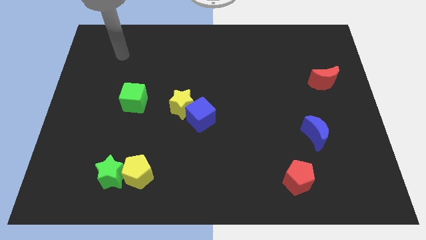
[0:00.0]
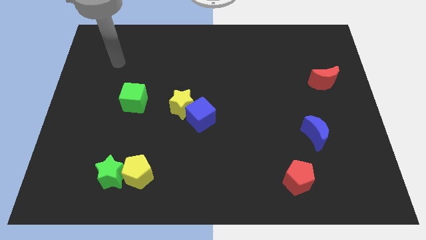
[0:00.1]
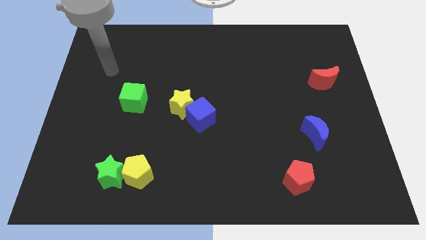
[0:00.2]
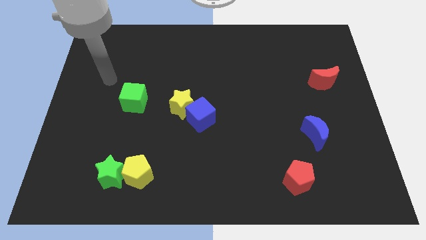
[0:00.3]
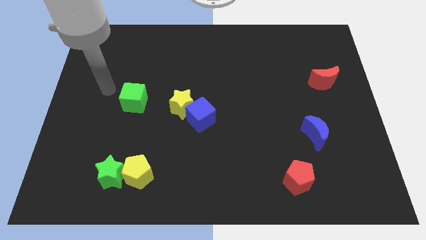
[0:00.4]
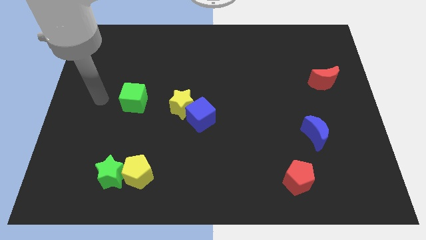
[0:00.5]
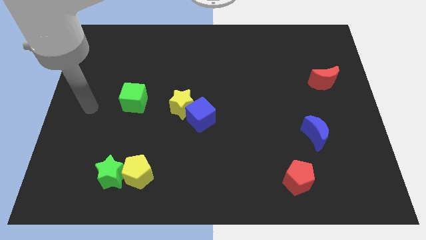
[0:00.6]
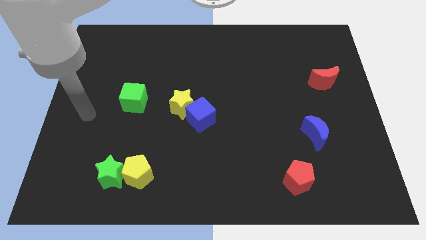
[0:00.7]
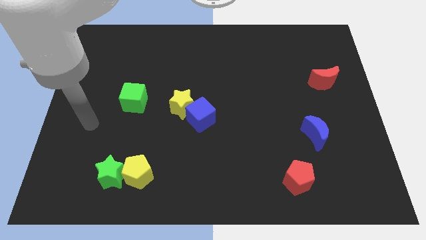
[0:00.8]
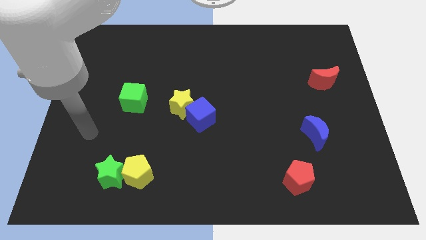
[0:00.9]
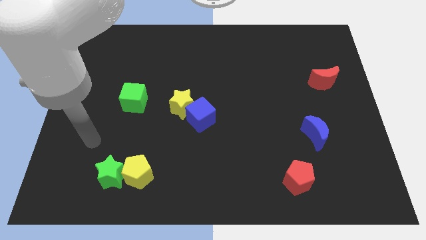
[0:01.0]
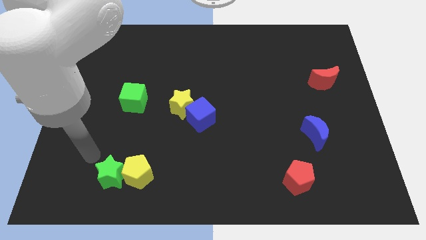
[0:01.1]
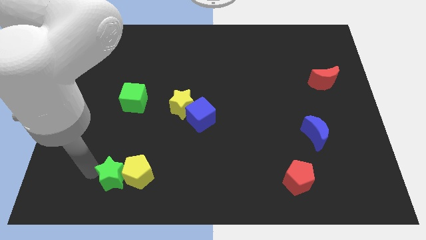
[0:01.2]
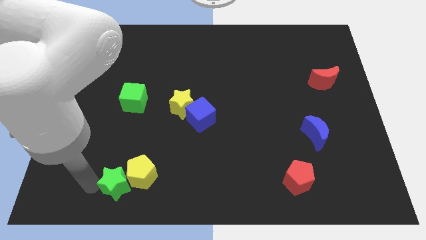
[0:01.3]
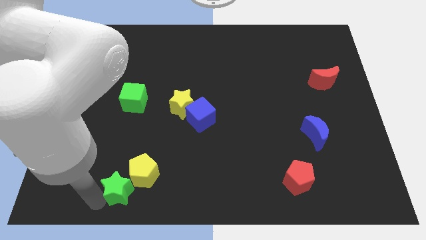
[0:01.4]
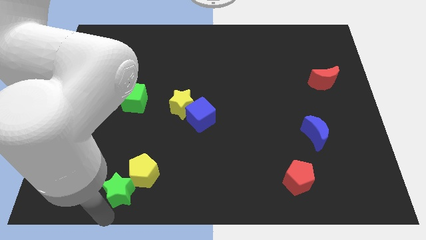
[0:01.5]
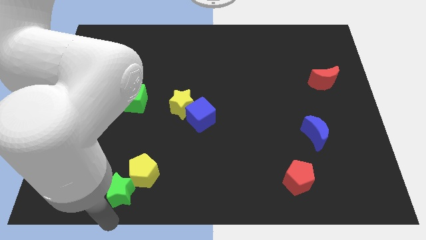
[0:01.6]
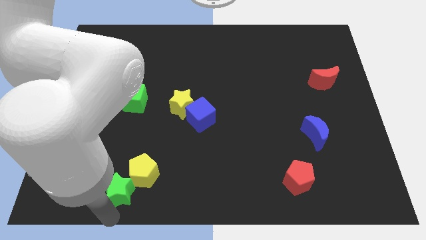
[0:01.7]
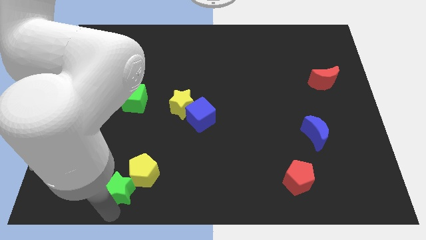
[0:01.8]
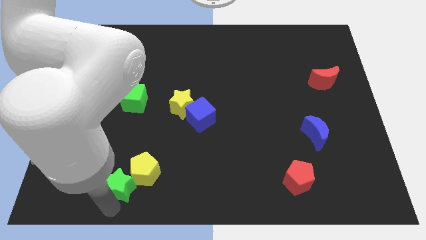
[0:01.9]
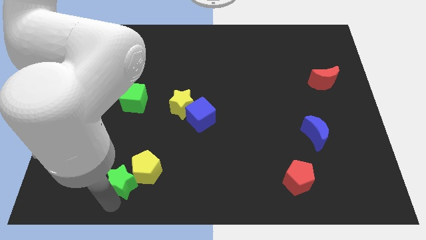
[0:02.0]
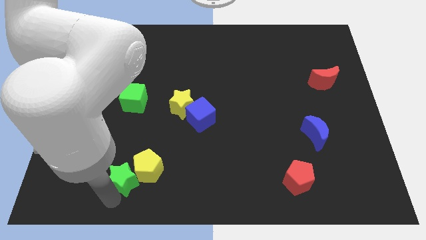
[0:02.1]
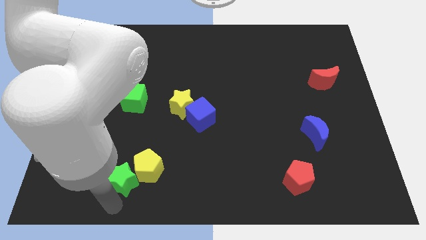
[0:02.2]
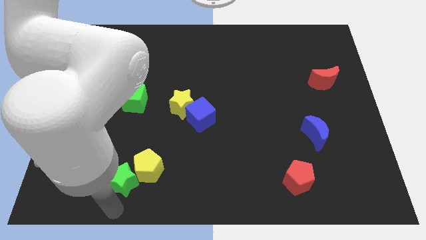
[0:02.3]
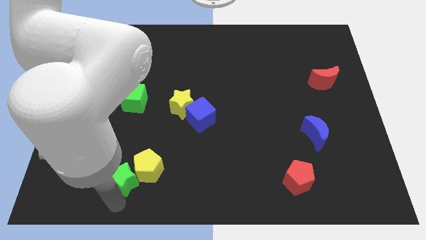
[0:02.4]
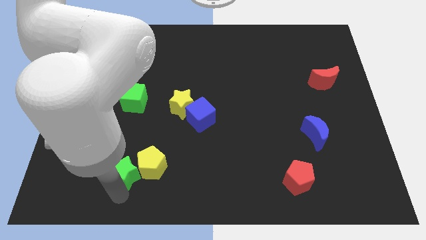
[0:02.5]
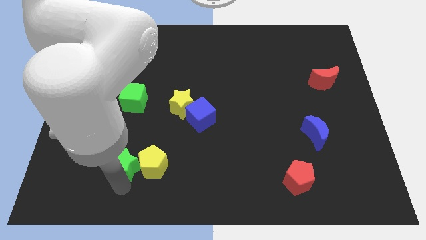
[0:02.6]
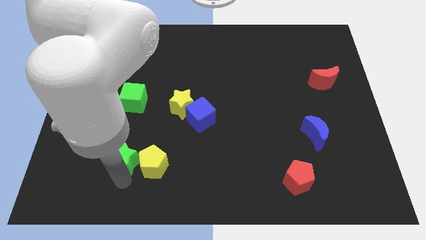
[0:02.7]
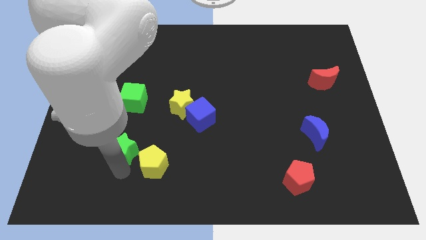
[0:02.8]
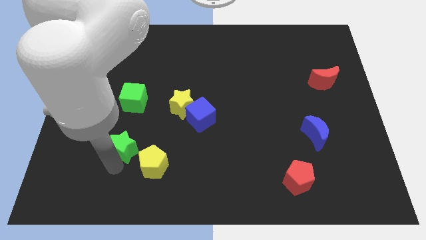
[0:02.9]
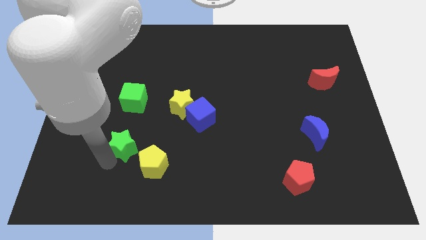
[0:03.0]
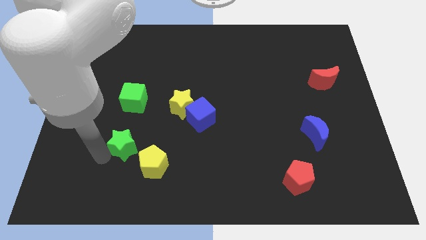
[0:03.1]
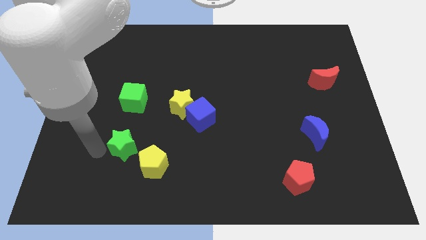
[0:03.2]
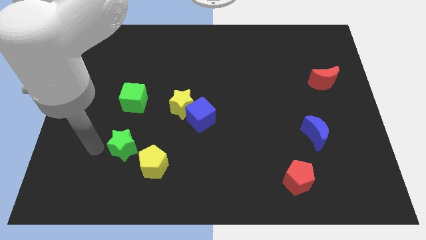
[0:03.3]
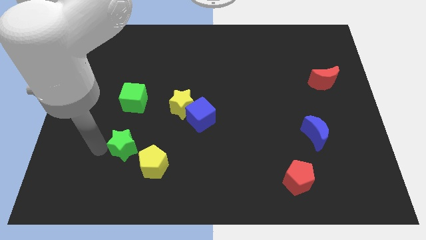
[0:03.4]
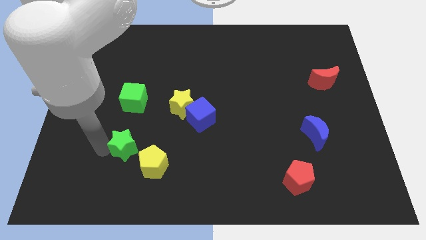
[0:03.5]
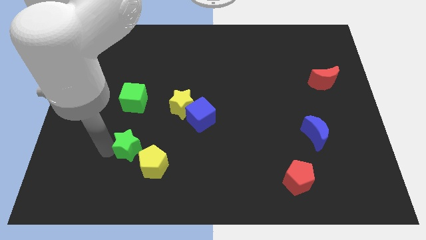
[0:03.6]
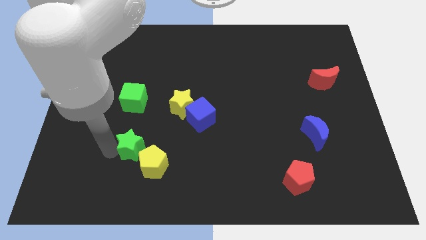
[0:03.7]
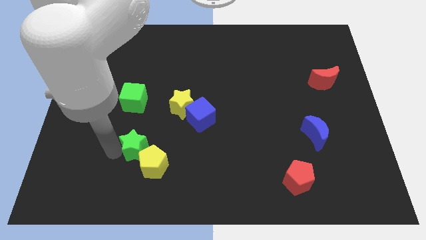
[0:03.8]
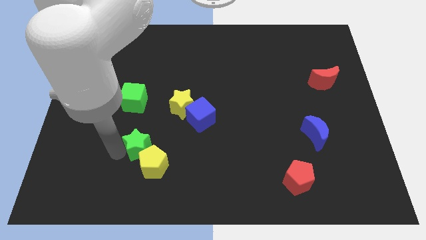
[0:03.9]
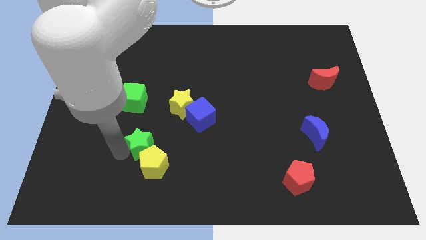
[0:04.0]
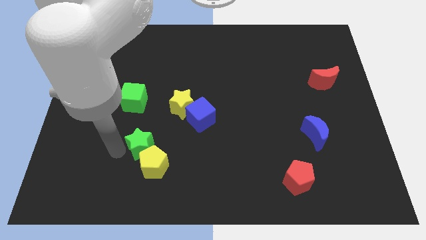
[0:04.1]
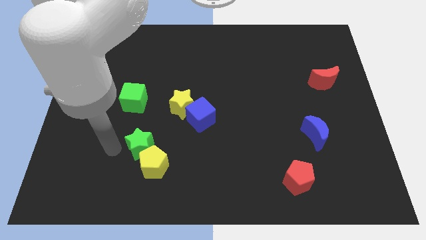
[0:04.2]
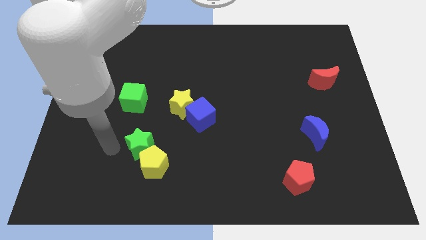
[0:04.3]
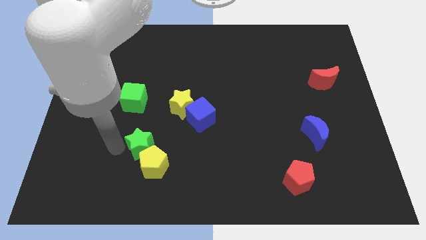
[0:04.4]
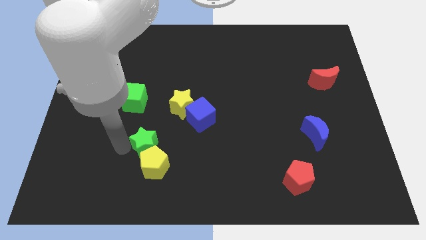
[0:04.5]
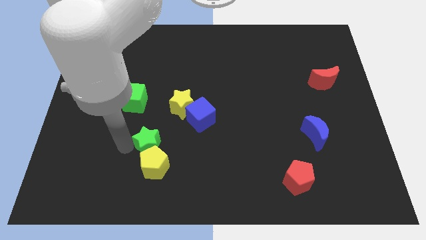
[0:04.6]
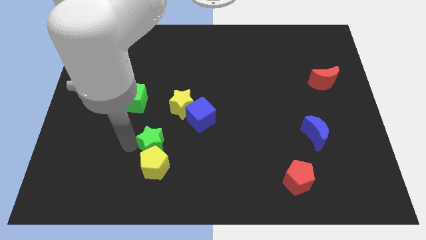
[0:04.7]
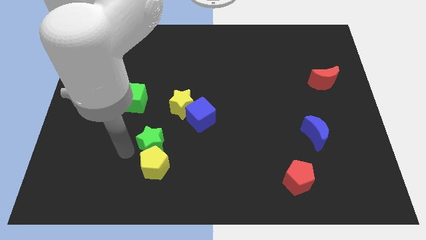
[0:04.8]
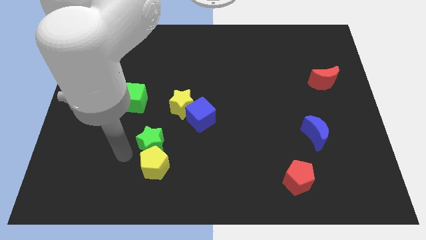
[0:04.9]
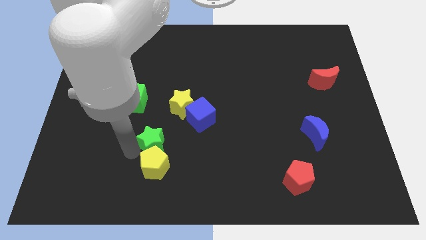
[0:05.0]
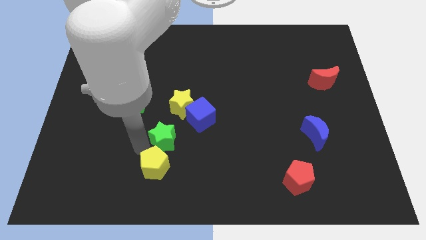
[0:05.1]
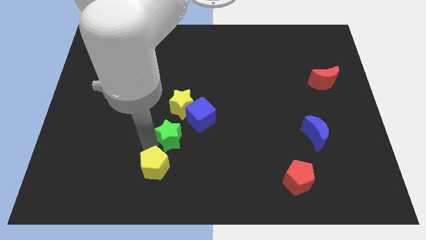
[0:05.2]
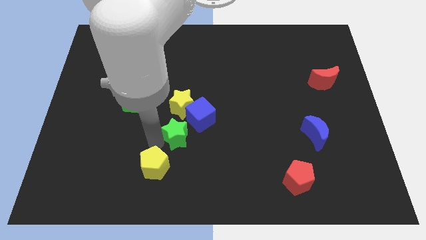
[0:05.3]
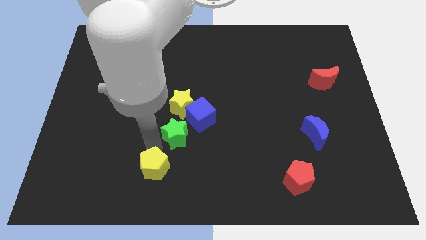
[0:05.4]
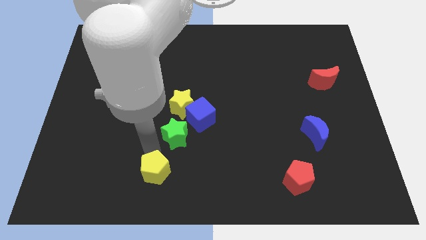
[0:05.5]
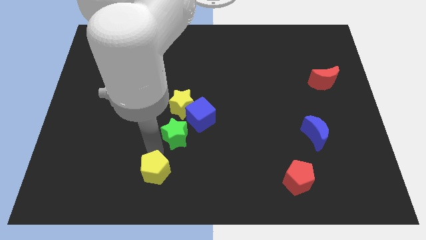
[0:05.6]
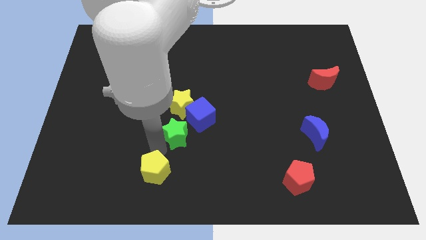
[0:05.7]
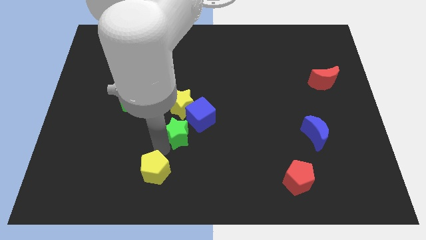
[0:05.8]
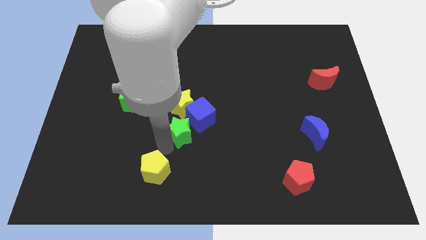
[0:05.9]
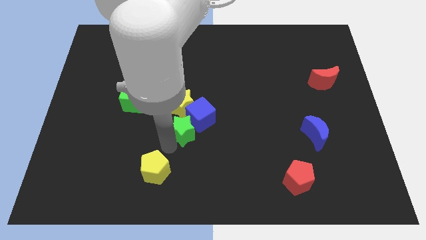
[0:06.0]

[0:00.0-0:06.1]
put the green star close to the blue cube

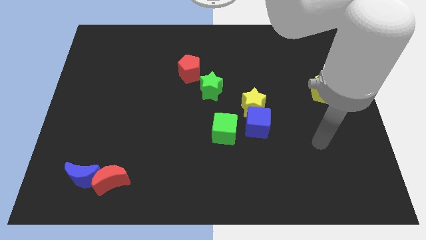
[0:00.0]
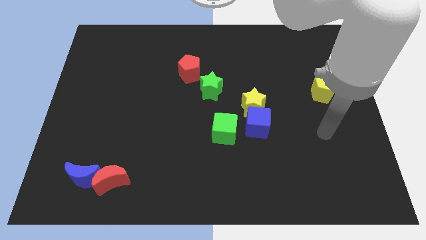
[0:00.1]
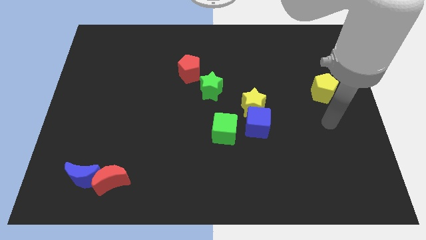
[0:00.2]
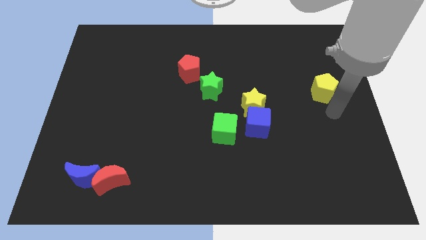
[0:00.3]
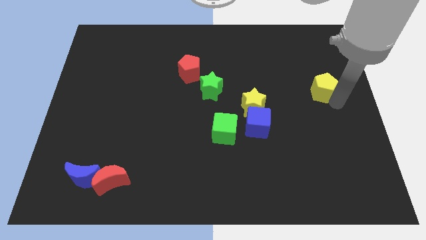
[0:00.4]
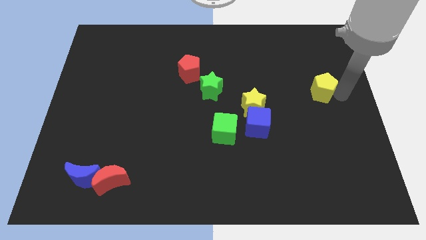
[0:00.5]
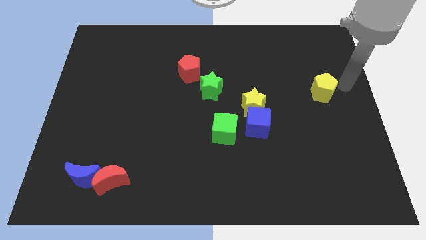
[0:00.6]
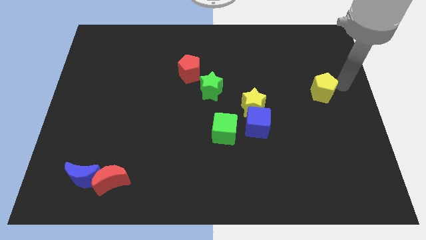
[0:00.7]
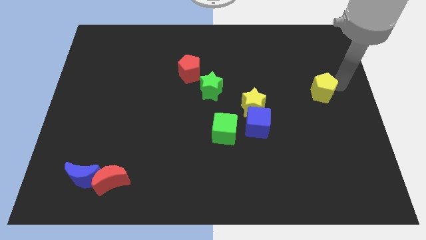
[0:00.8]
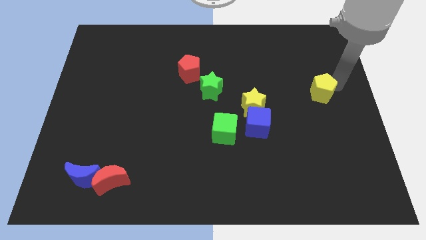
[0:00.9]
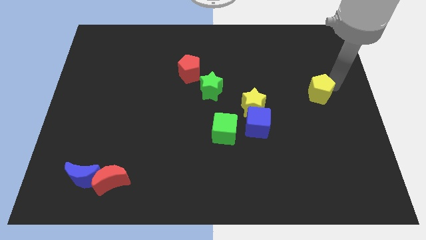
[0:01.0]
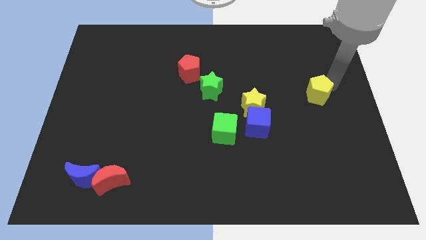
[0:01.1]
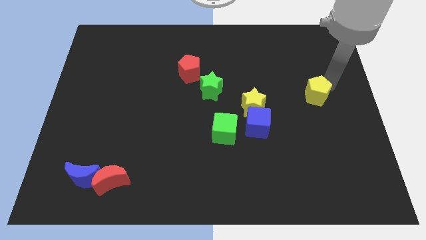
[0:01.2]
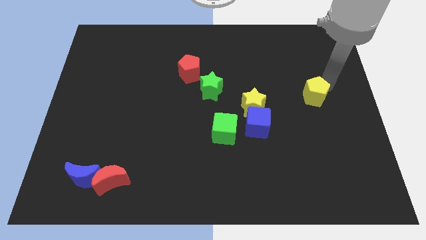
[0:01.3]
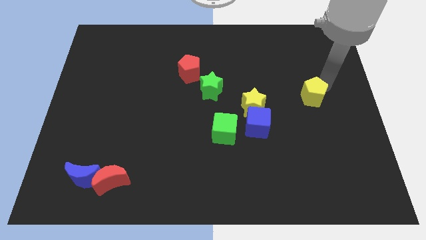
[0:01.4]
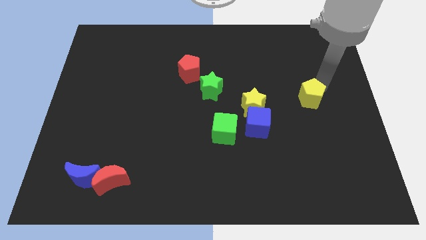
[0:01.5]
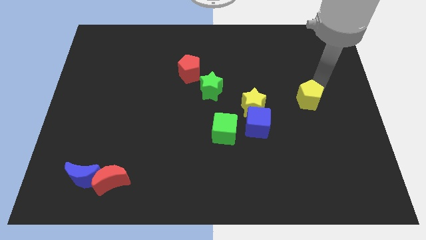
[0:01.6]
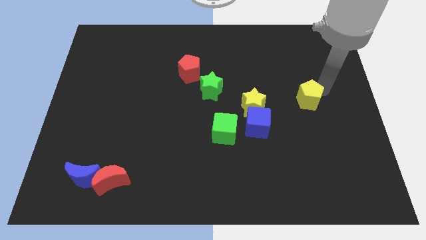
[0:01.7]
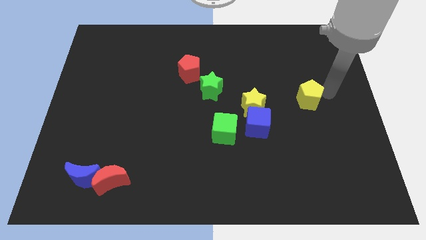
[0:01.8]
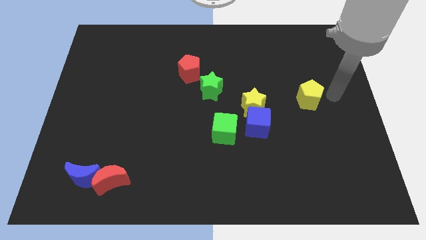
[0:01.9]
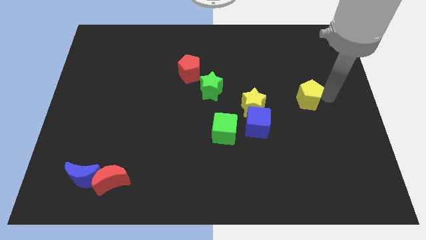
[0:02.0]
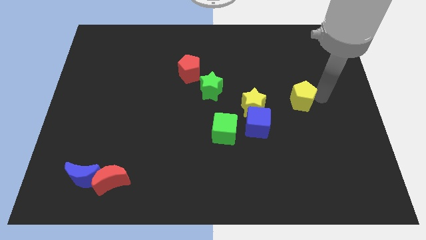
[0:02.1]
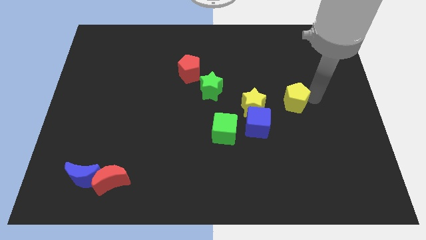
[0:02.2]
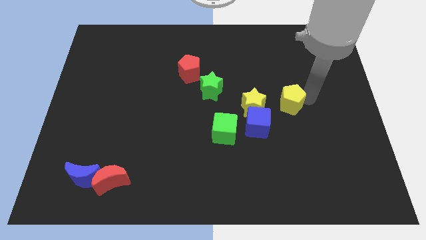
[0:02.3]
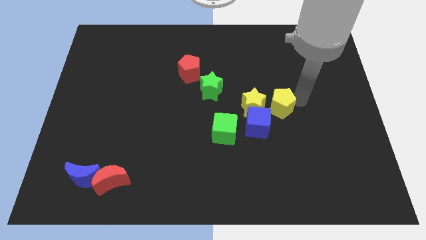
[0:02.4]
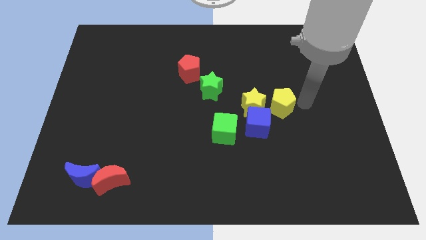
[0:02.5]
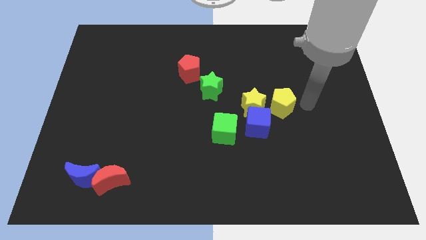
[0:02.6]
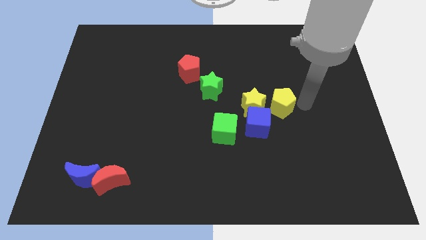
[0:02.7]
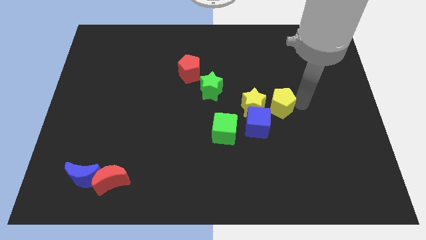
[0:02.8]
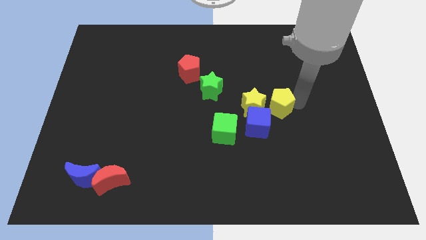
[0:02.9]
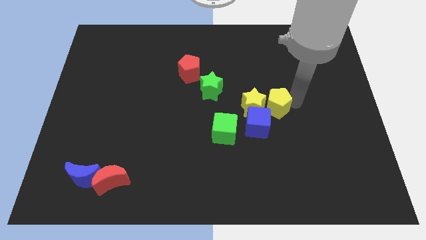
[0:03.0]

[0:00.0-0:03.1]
move the yellow pentagon towards the yellow star
